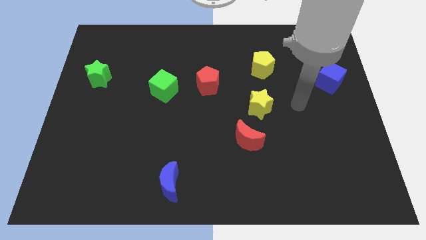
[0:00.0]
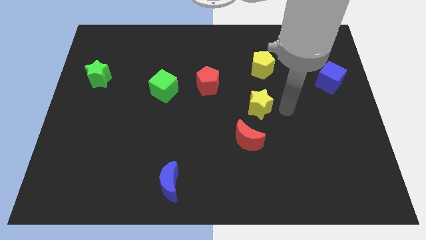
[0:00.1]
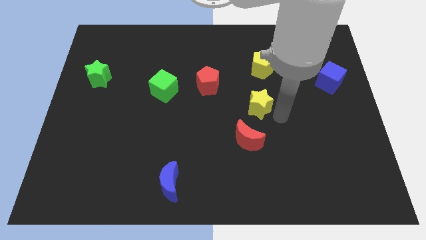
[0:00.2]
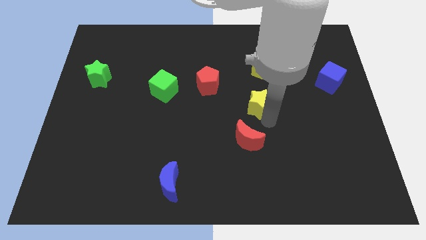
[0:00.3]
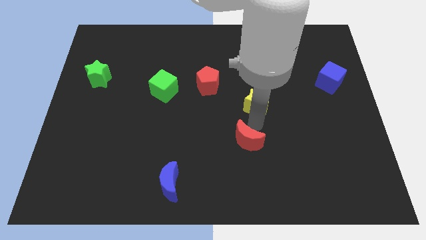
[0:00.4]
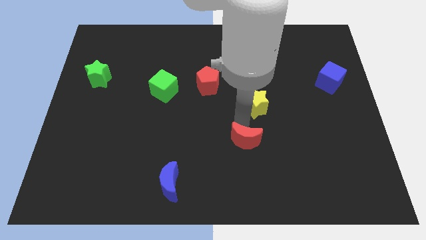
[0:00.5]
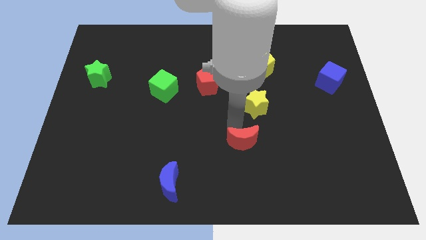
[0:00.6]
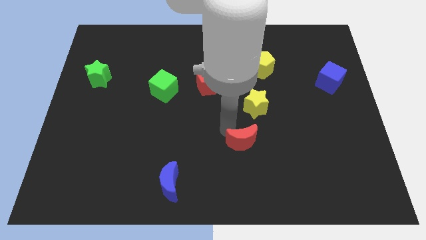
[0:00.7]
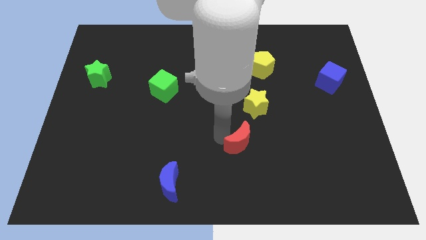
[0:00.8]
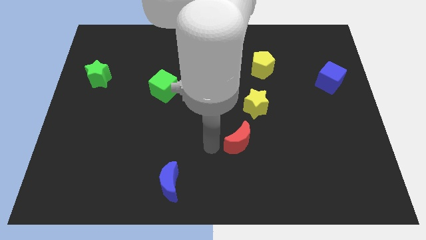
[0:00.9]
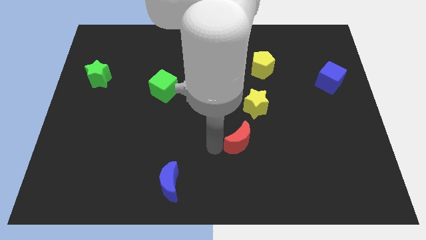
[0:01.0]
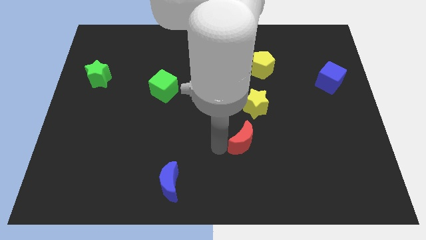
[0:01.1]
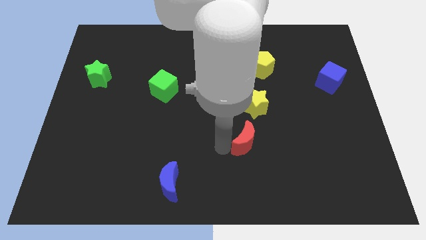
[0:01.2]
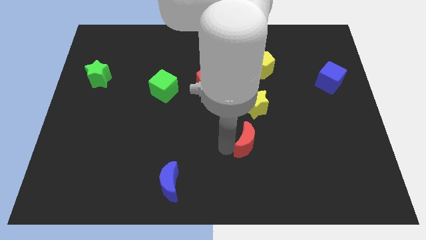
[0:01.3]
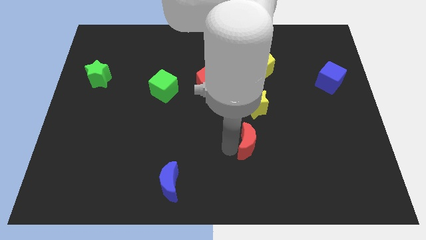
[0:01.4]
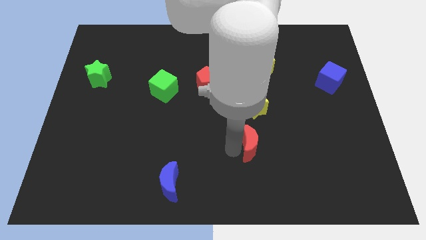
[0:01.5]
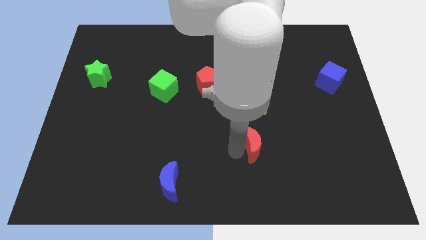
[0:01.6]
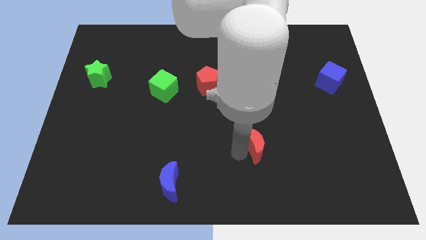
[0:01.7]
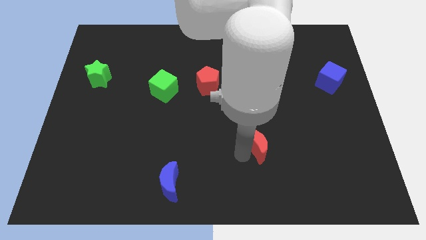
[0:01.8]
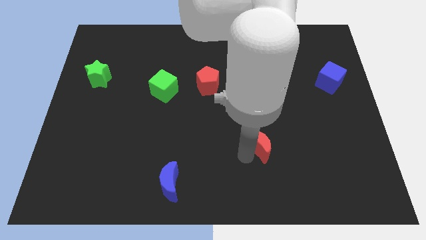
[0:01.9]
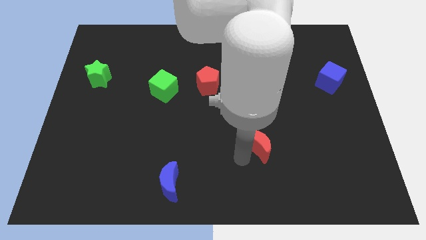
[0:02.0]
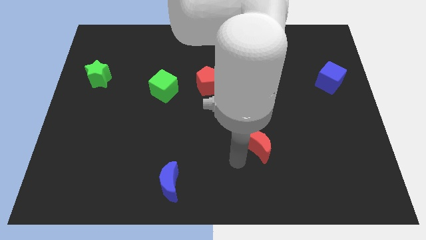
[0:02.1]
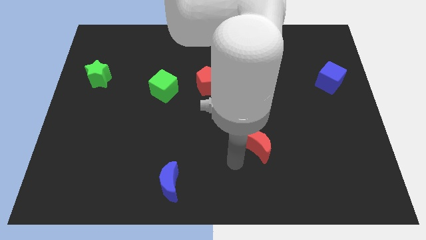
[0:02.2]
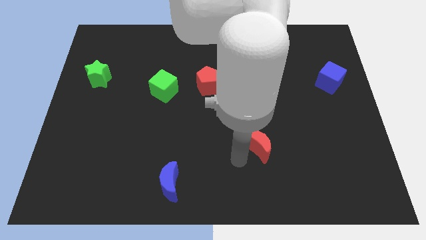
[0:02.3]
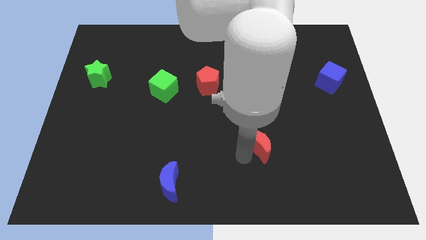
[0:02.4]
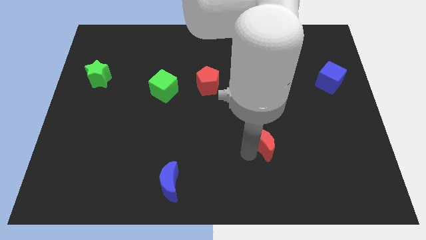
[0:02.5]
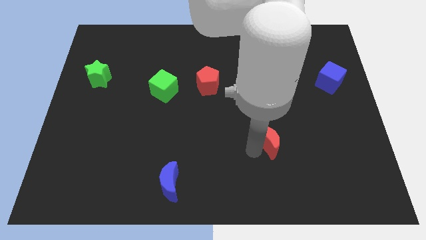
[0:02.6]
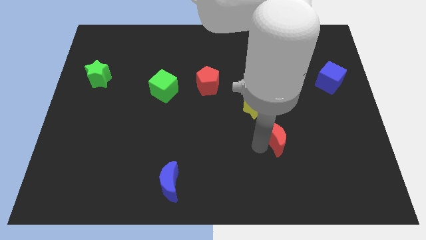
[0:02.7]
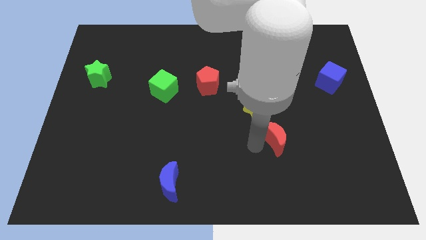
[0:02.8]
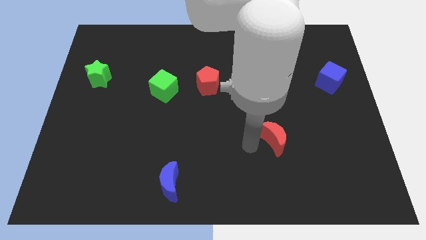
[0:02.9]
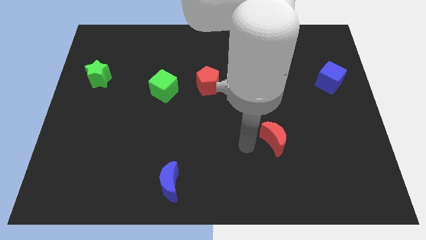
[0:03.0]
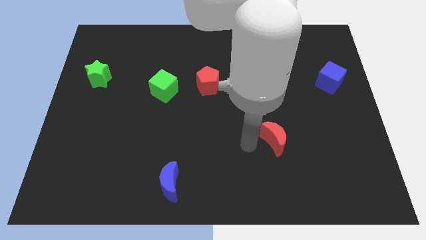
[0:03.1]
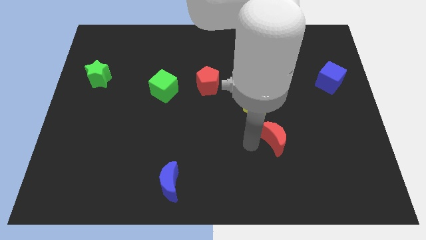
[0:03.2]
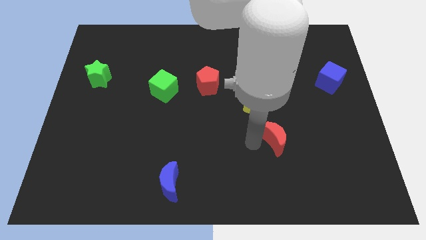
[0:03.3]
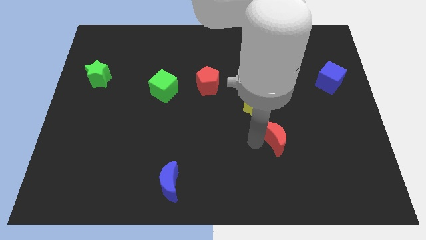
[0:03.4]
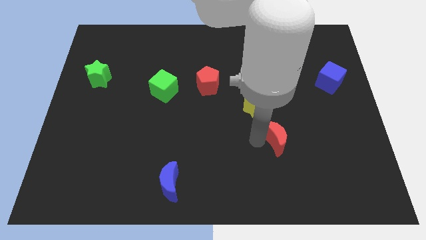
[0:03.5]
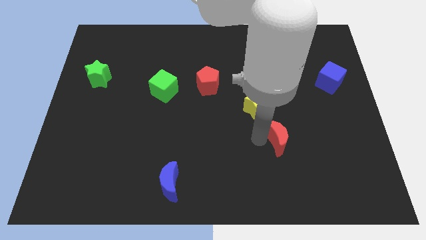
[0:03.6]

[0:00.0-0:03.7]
move the red moon to the right somewhat

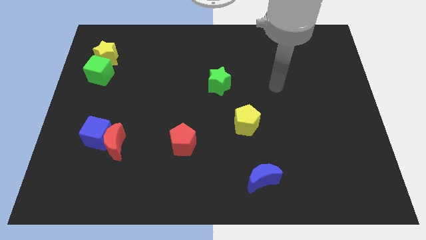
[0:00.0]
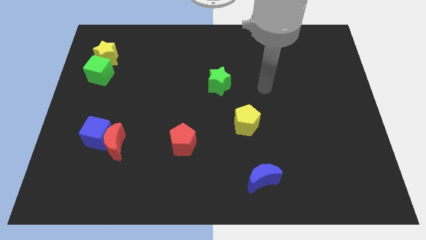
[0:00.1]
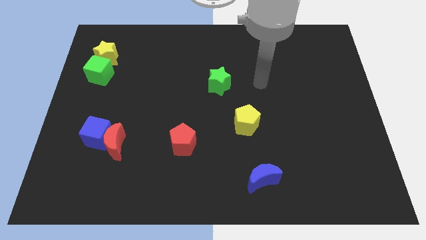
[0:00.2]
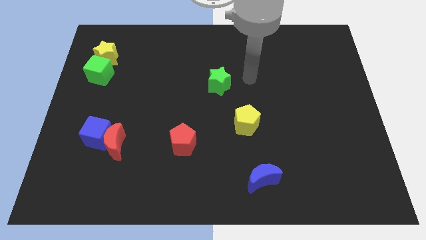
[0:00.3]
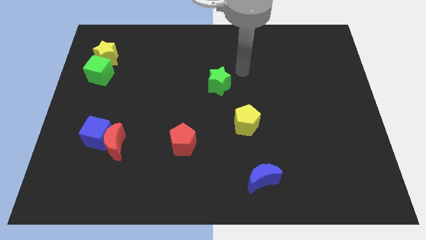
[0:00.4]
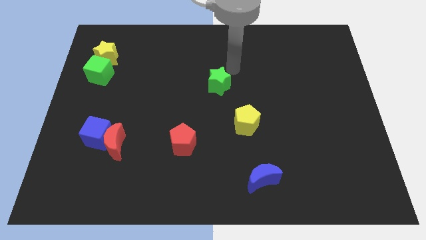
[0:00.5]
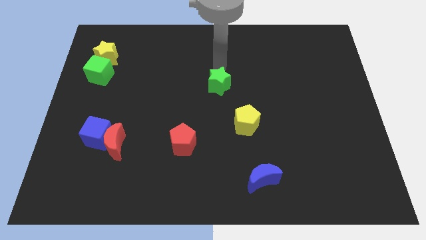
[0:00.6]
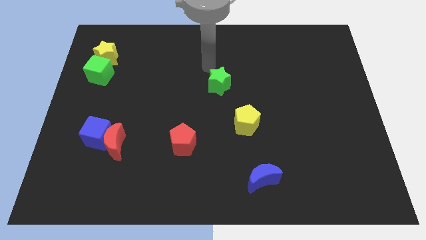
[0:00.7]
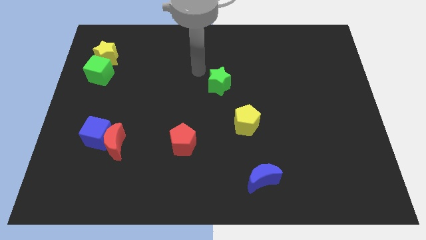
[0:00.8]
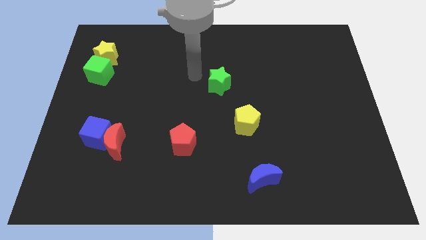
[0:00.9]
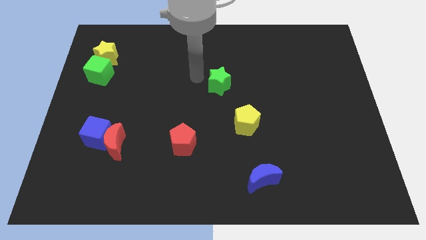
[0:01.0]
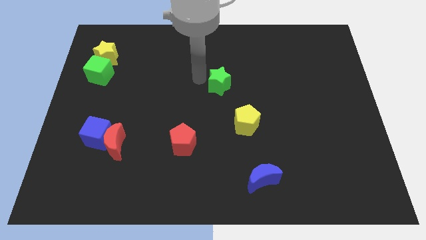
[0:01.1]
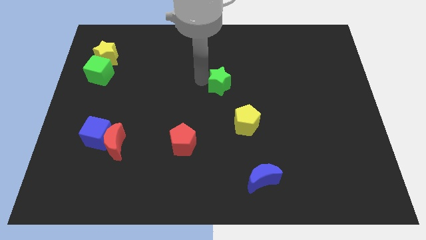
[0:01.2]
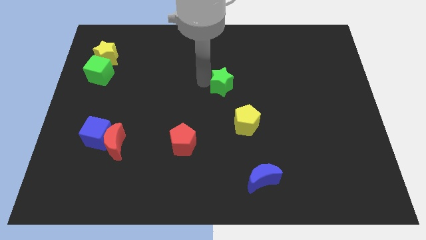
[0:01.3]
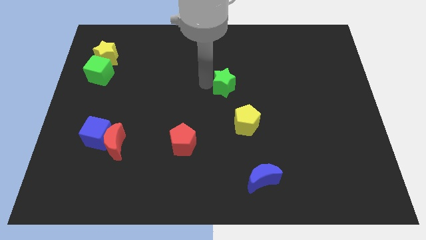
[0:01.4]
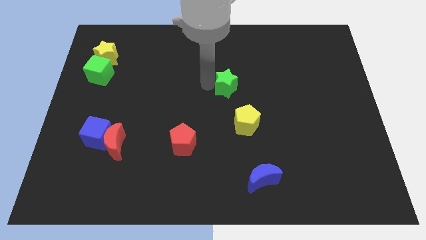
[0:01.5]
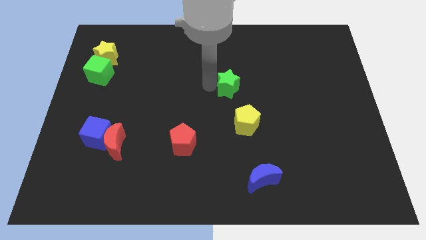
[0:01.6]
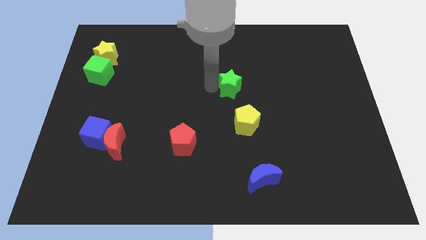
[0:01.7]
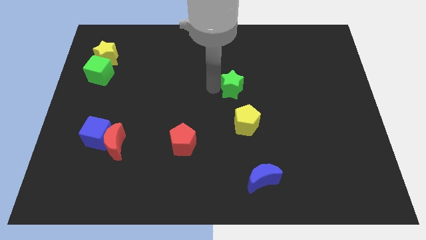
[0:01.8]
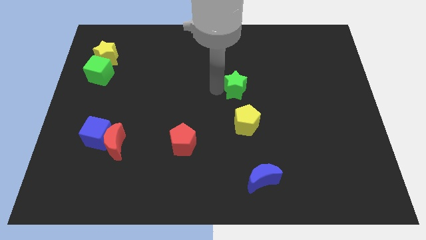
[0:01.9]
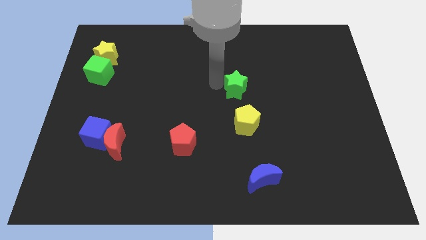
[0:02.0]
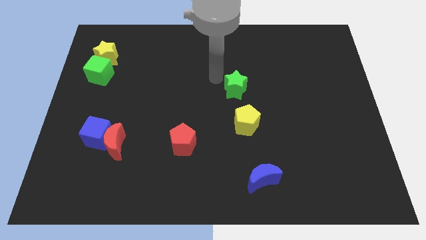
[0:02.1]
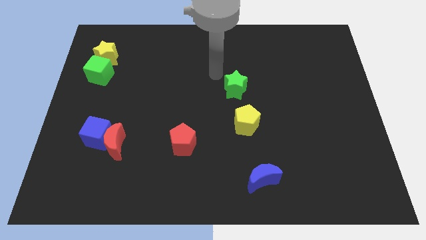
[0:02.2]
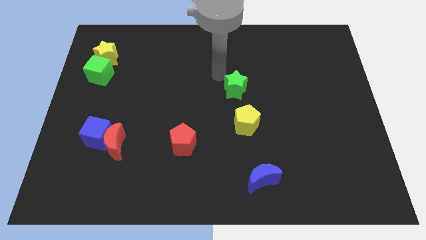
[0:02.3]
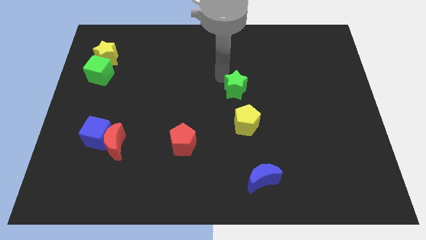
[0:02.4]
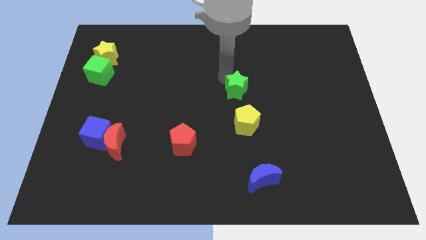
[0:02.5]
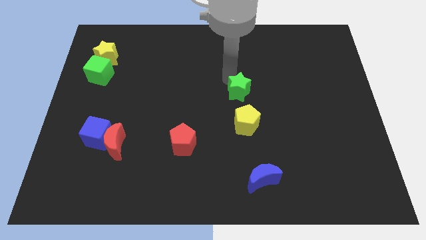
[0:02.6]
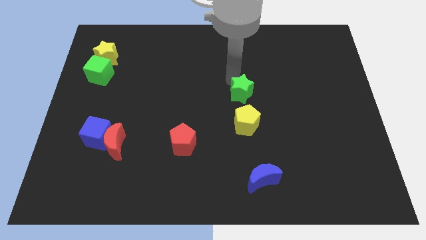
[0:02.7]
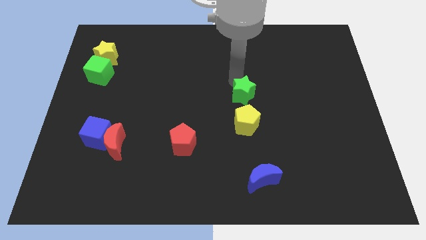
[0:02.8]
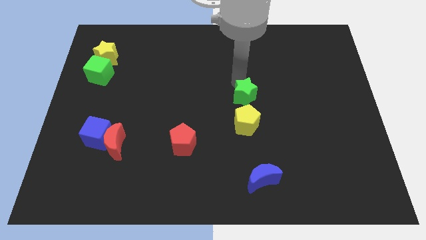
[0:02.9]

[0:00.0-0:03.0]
move the green star down and right a little

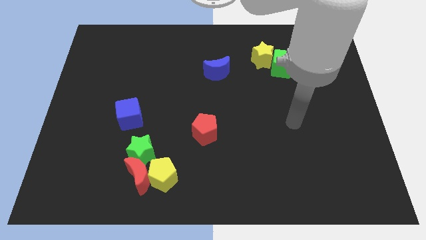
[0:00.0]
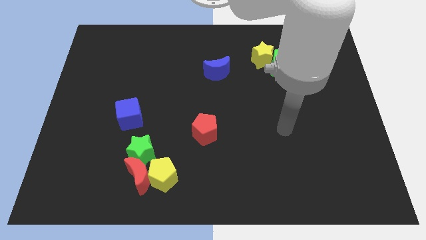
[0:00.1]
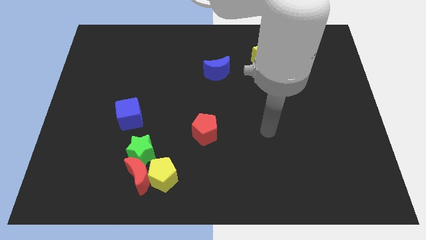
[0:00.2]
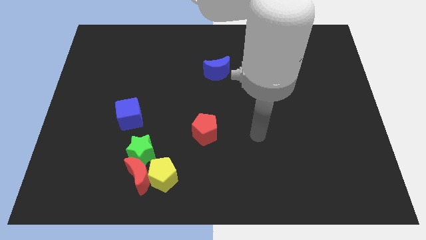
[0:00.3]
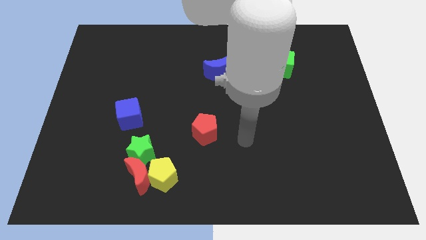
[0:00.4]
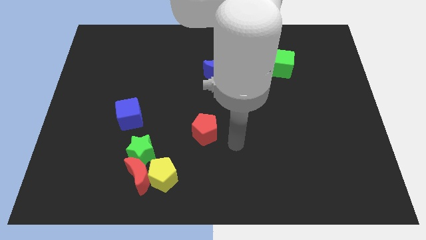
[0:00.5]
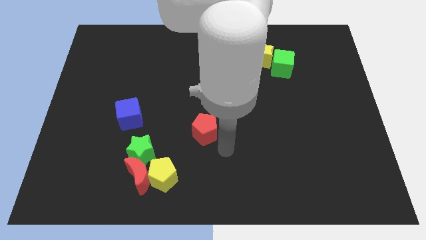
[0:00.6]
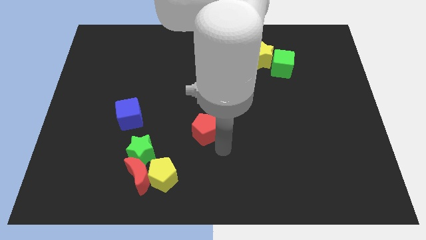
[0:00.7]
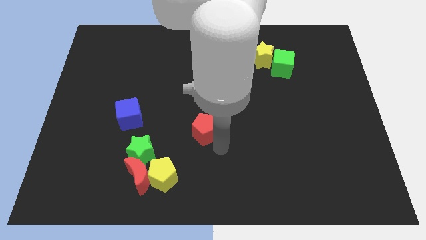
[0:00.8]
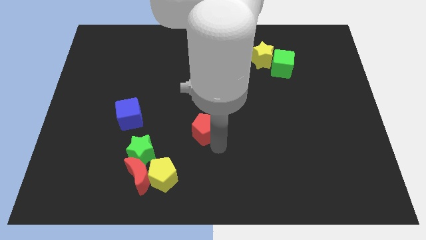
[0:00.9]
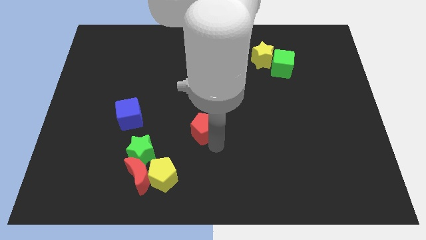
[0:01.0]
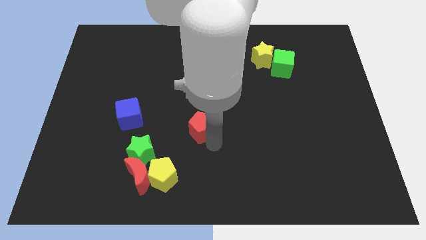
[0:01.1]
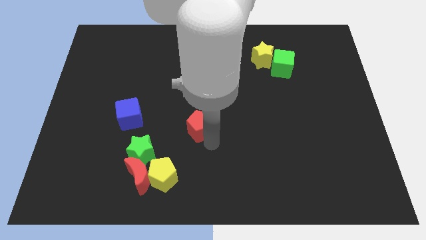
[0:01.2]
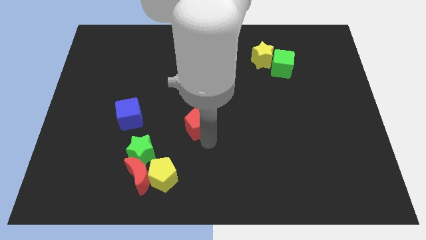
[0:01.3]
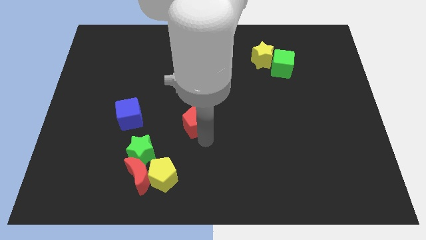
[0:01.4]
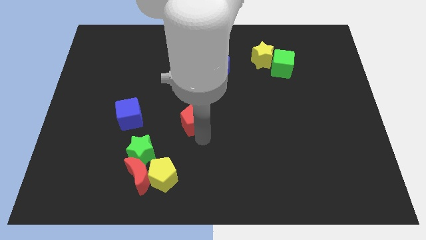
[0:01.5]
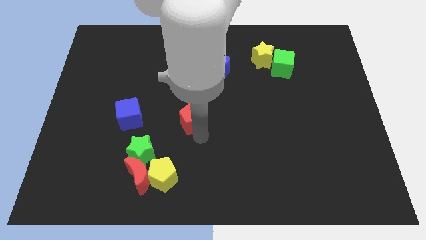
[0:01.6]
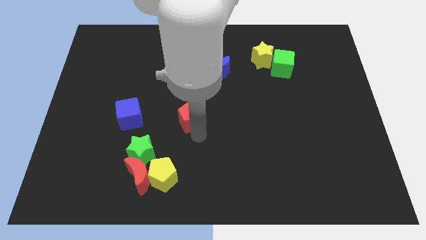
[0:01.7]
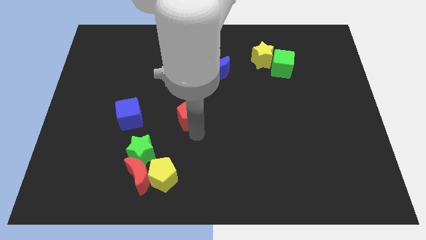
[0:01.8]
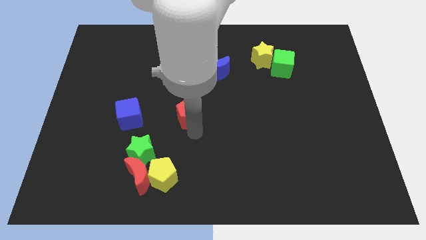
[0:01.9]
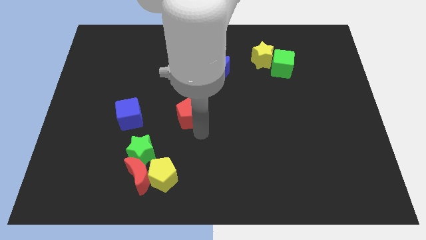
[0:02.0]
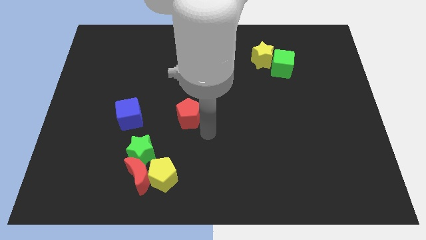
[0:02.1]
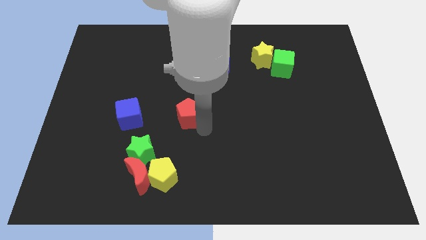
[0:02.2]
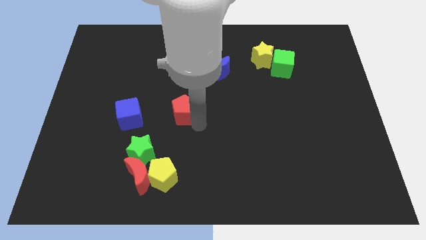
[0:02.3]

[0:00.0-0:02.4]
push the red pentagon a little bit upwards and left diagonally
